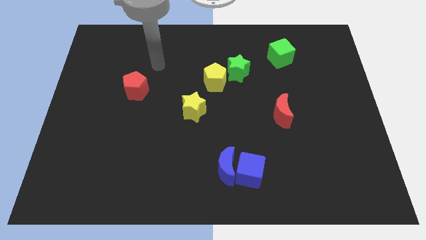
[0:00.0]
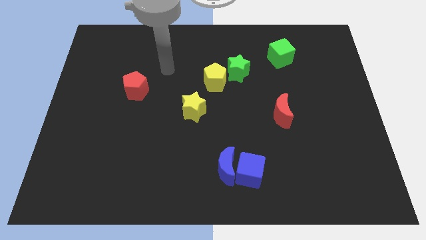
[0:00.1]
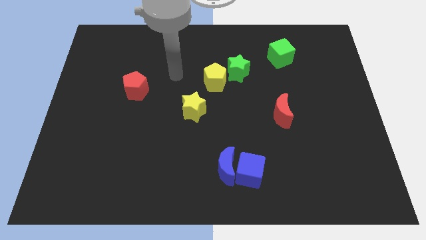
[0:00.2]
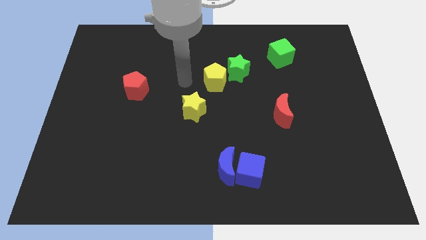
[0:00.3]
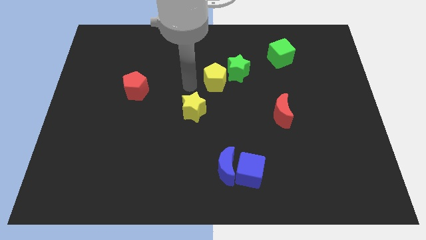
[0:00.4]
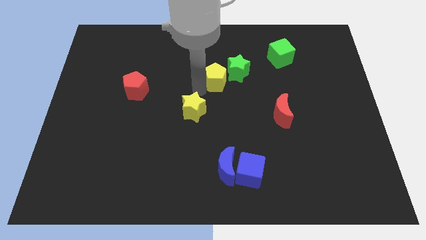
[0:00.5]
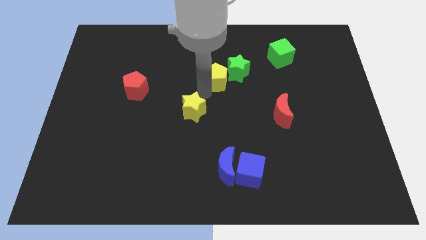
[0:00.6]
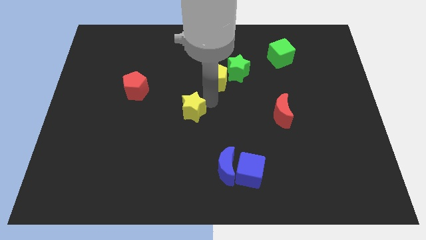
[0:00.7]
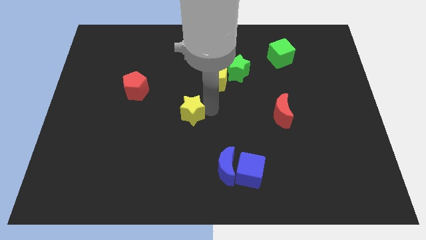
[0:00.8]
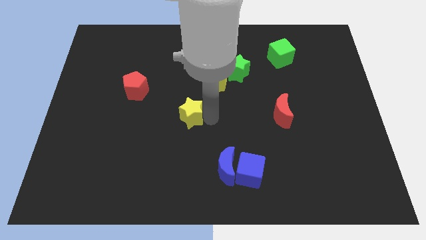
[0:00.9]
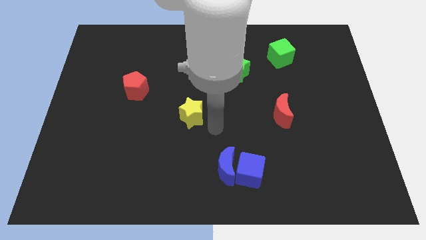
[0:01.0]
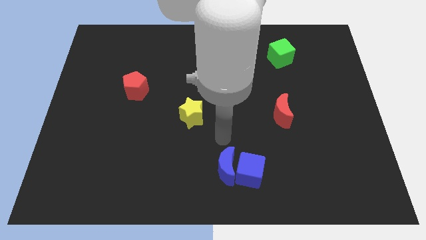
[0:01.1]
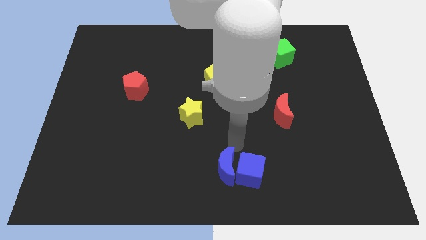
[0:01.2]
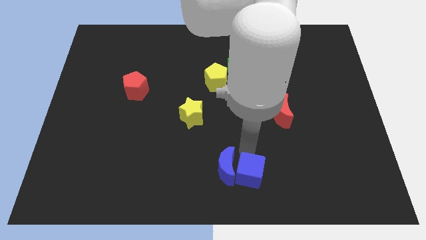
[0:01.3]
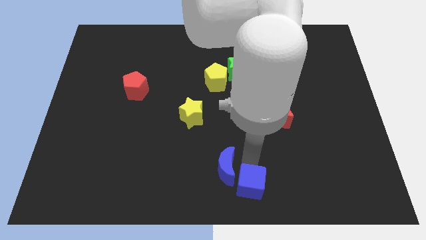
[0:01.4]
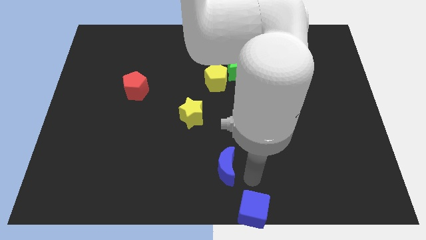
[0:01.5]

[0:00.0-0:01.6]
separate the blue moon from the blue cube

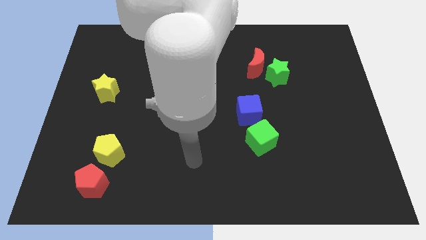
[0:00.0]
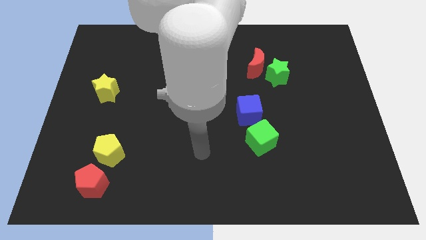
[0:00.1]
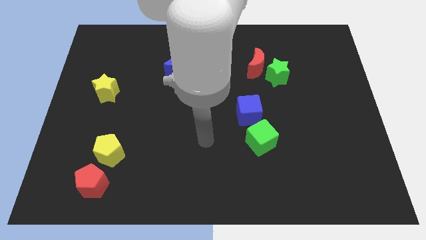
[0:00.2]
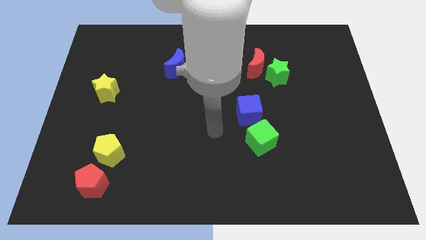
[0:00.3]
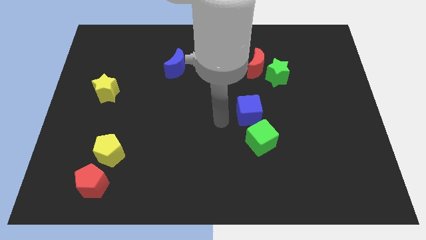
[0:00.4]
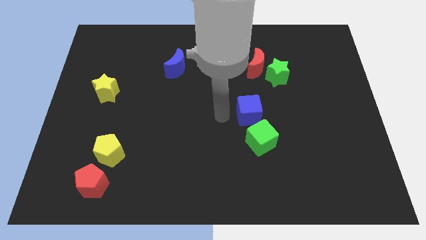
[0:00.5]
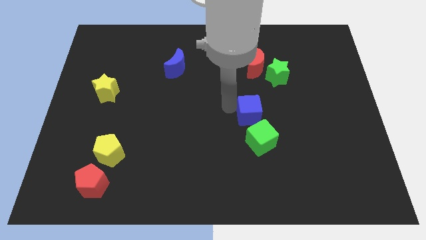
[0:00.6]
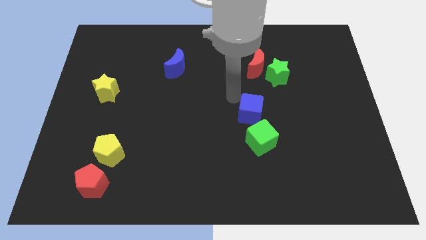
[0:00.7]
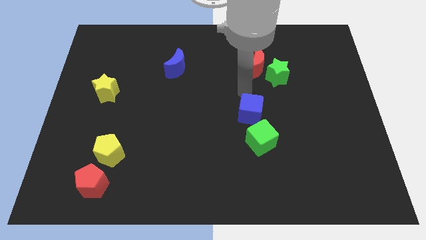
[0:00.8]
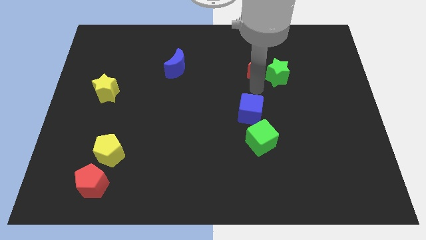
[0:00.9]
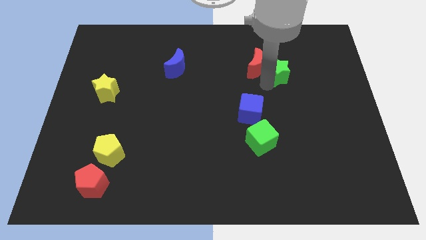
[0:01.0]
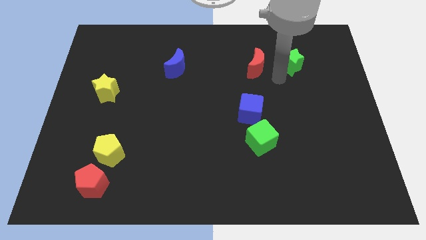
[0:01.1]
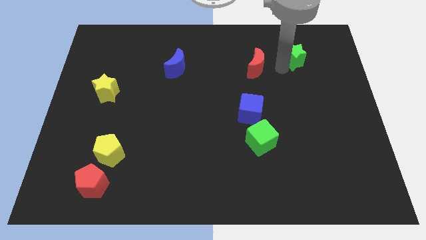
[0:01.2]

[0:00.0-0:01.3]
pull the red moon apart from the green star

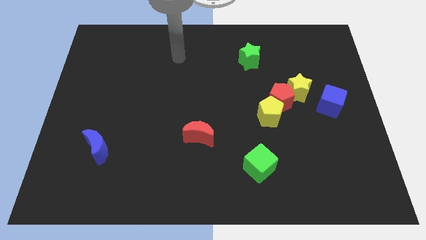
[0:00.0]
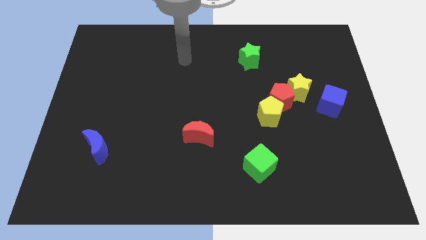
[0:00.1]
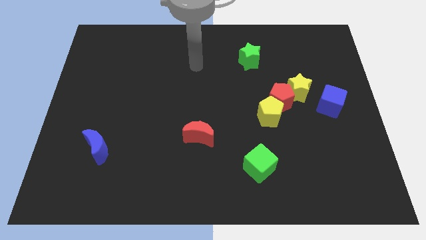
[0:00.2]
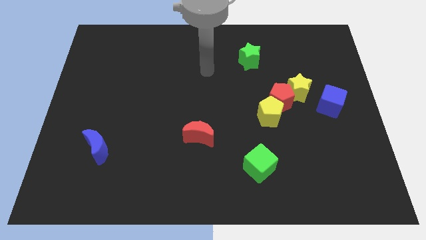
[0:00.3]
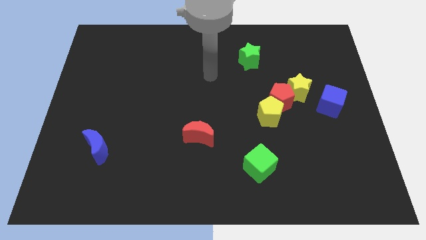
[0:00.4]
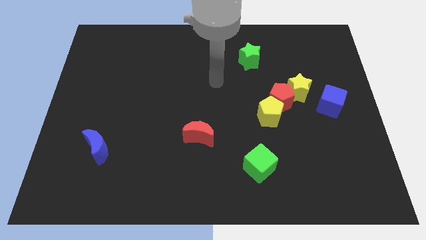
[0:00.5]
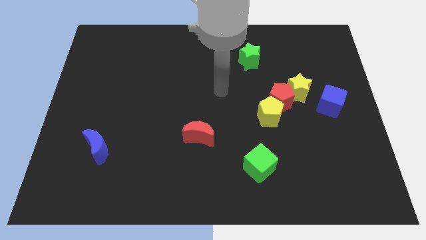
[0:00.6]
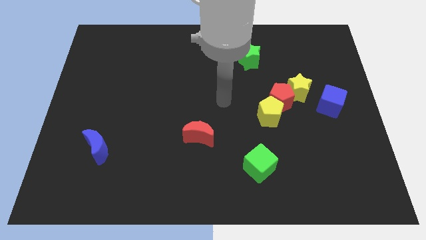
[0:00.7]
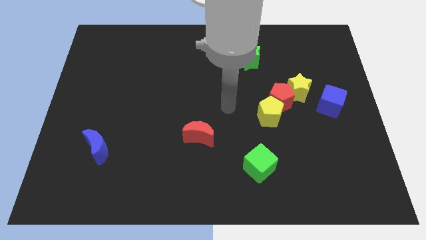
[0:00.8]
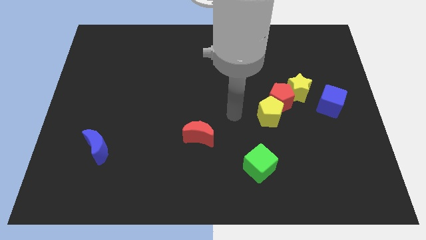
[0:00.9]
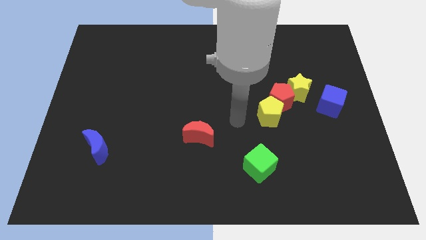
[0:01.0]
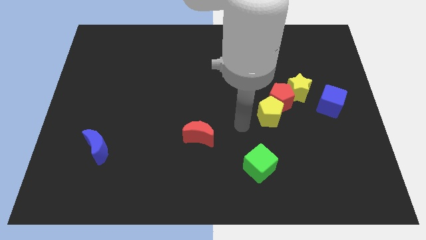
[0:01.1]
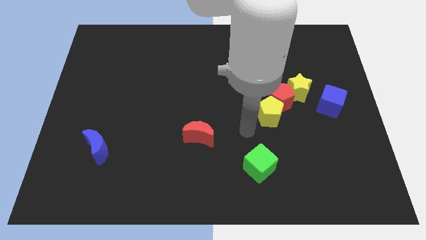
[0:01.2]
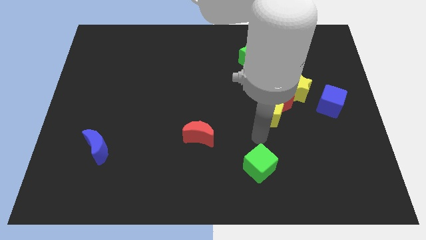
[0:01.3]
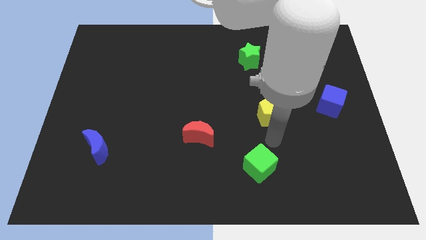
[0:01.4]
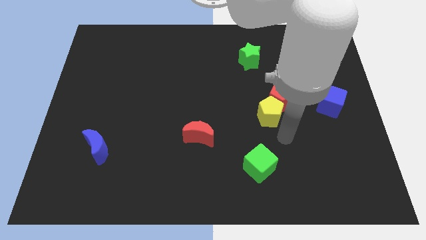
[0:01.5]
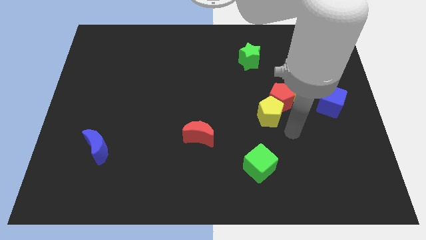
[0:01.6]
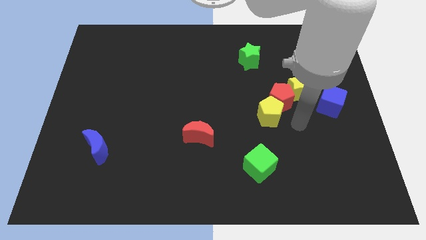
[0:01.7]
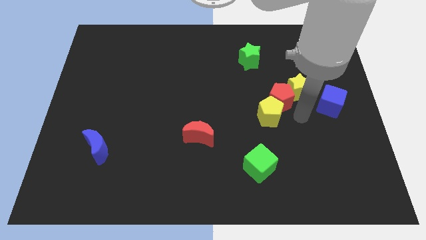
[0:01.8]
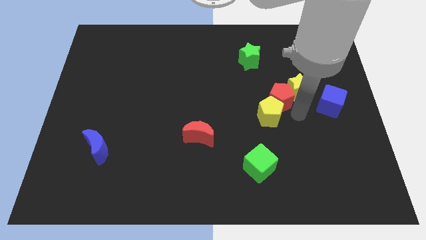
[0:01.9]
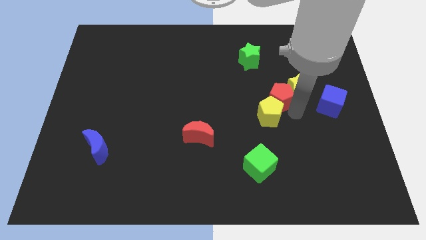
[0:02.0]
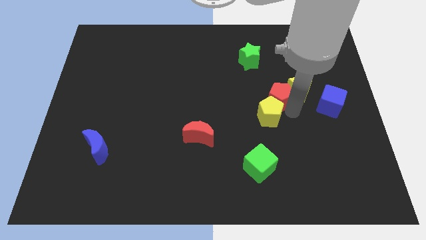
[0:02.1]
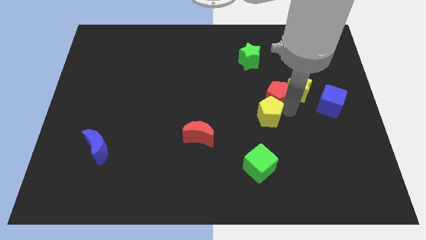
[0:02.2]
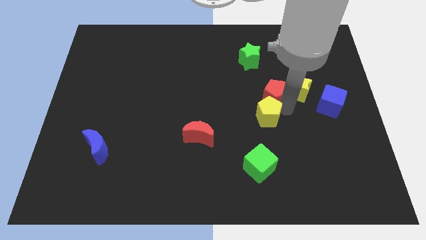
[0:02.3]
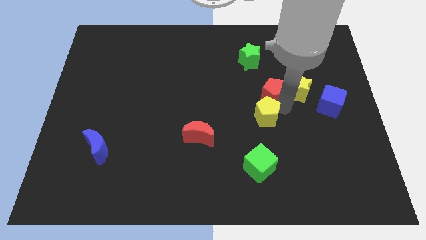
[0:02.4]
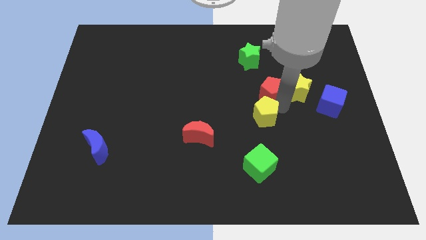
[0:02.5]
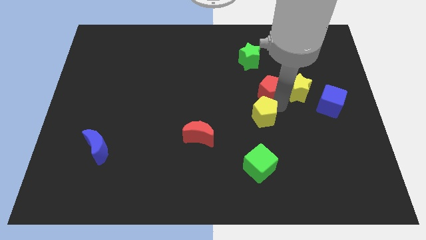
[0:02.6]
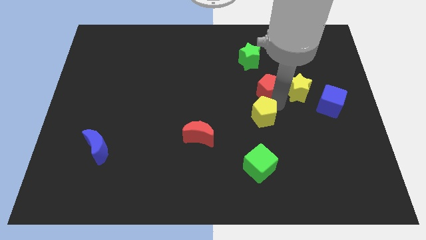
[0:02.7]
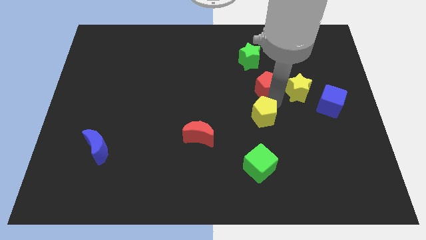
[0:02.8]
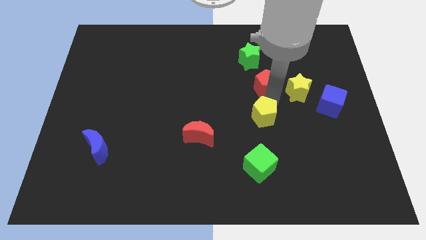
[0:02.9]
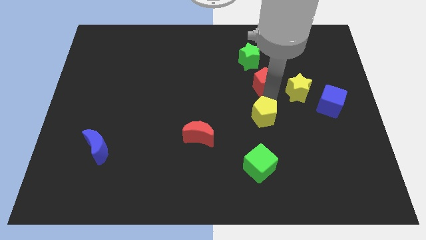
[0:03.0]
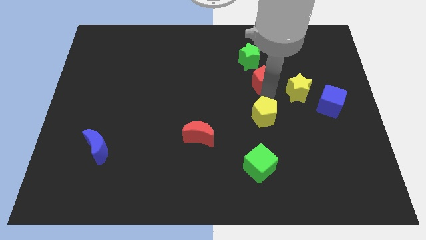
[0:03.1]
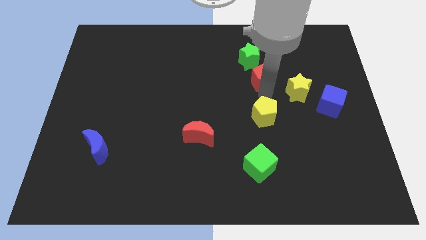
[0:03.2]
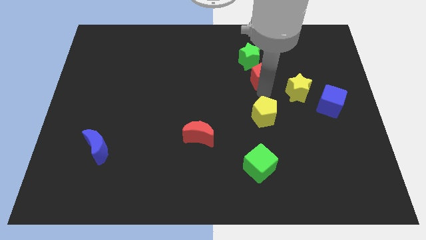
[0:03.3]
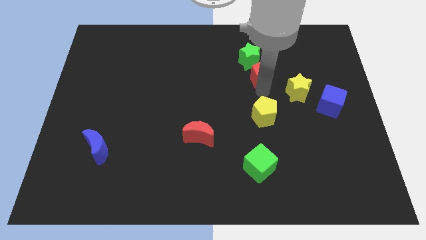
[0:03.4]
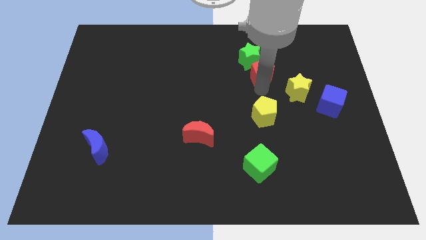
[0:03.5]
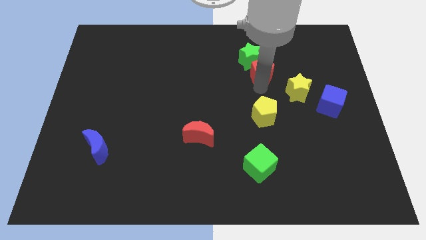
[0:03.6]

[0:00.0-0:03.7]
move the red pentagon away from the yellow pentagon and yellow star

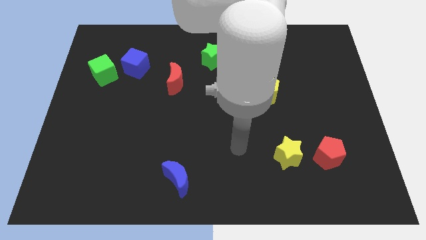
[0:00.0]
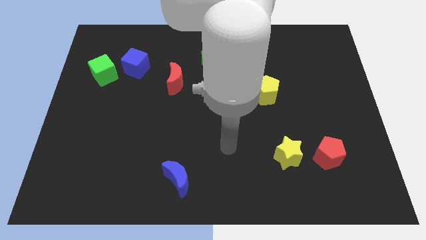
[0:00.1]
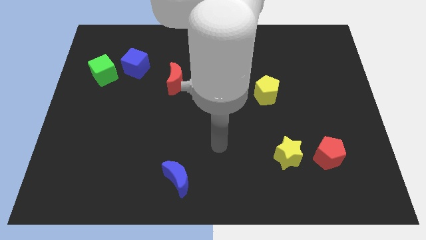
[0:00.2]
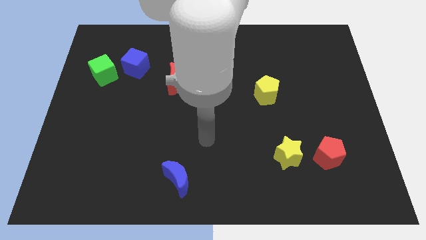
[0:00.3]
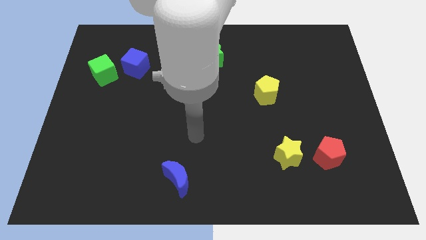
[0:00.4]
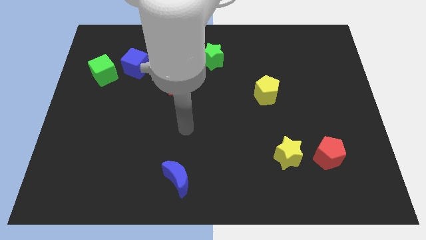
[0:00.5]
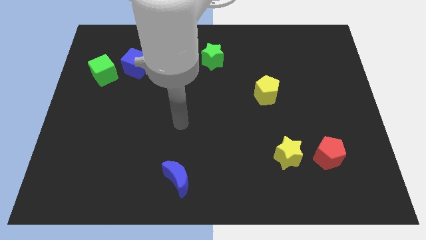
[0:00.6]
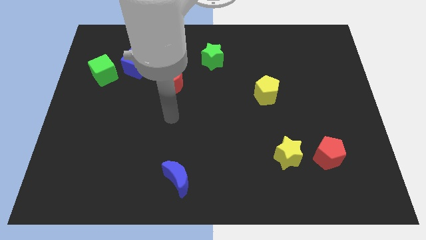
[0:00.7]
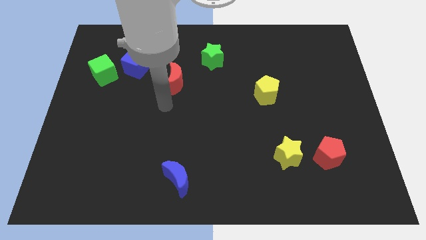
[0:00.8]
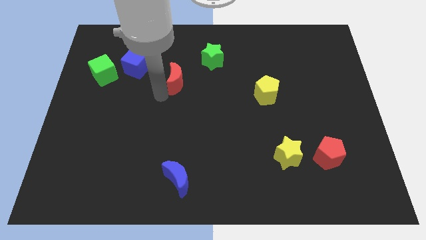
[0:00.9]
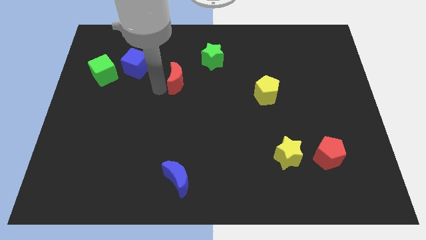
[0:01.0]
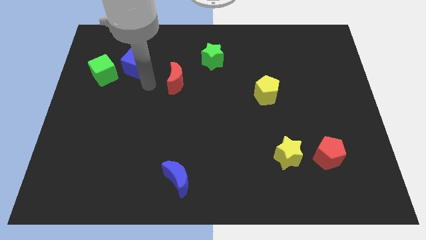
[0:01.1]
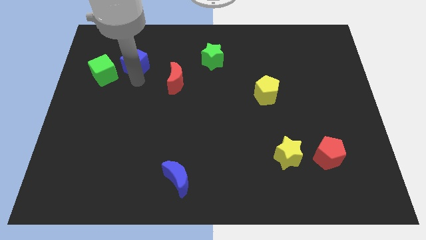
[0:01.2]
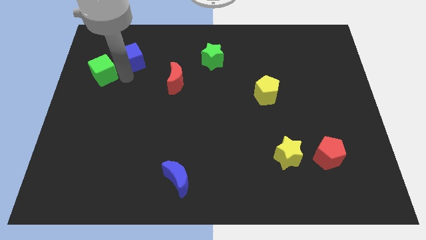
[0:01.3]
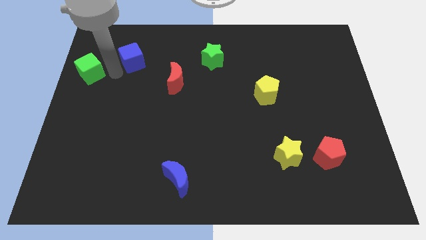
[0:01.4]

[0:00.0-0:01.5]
pull the blue cube apart from the green cube

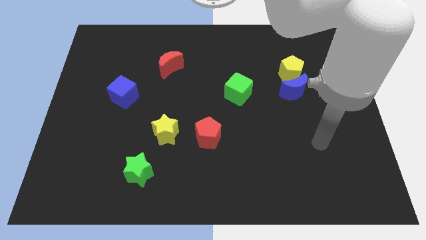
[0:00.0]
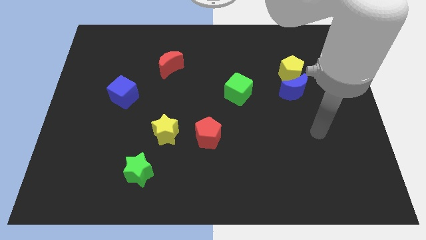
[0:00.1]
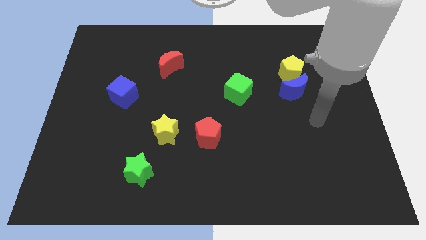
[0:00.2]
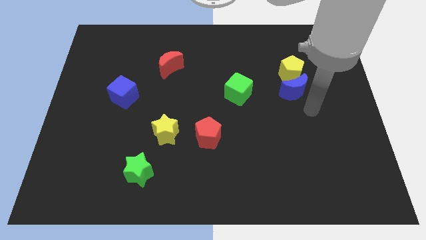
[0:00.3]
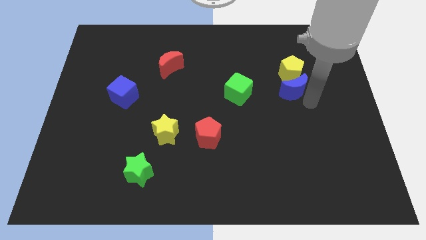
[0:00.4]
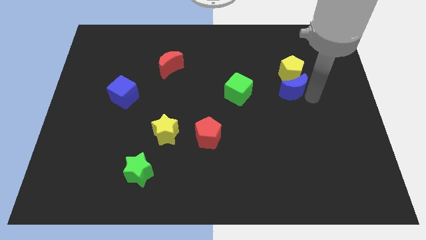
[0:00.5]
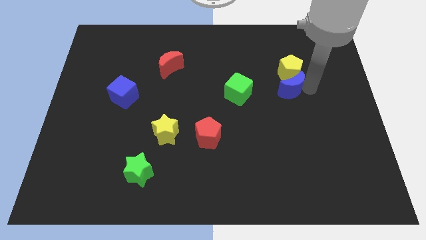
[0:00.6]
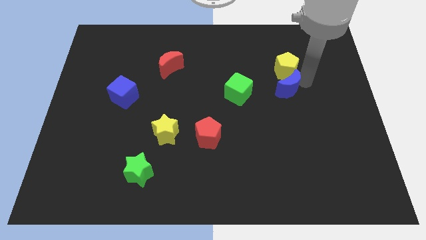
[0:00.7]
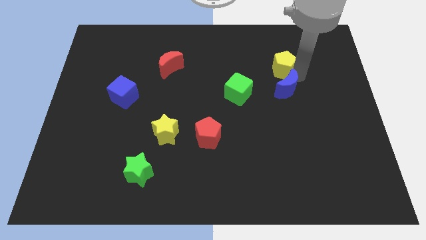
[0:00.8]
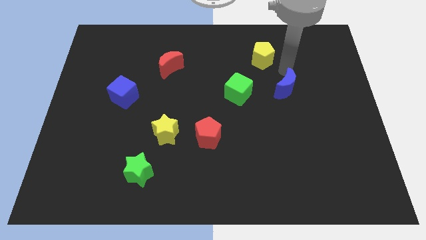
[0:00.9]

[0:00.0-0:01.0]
move the blue moon away from the yellow pentagon

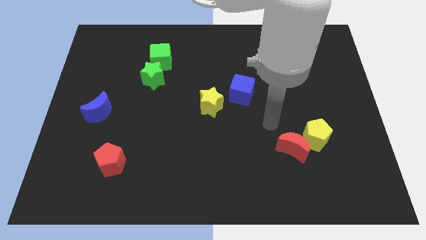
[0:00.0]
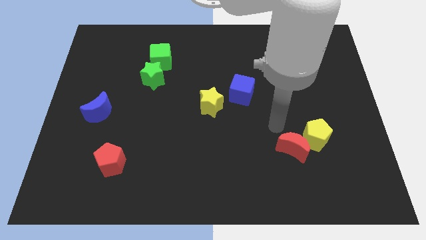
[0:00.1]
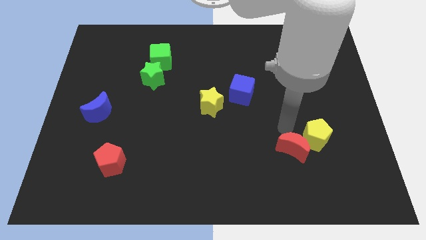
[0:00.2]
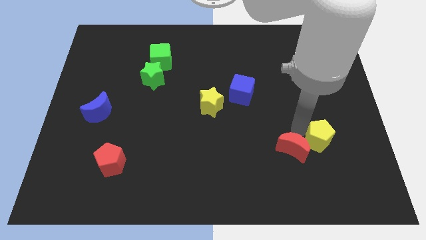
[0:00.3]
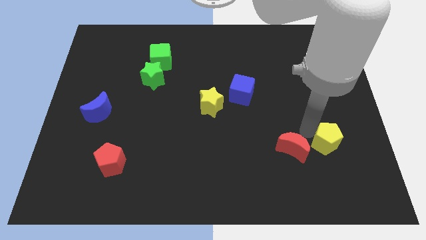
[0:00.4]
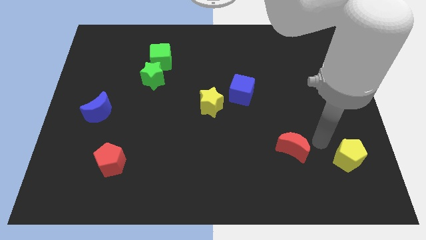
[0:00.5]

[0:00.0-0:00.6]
move the red moon away from the yellow pentagon
